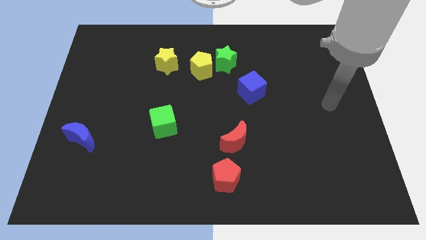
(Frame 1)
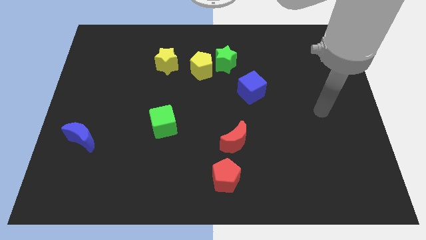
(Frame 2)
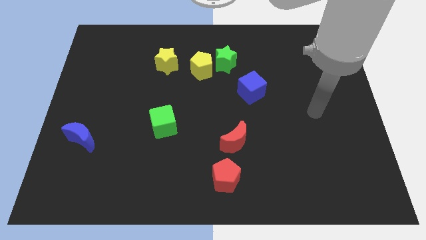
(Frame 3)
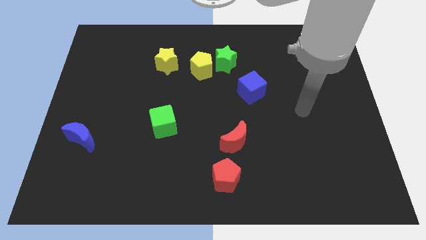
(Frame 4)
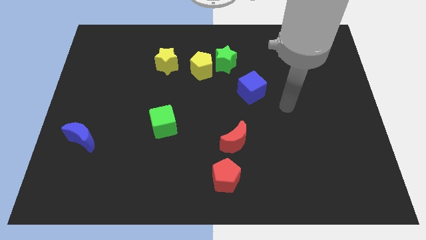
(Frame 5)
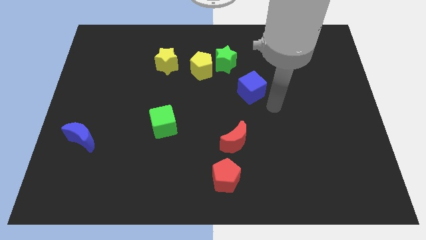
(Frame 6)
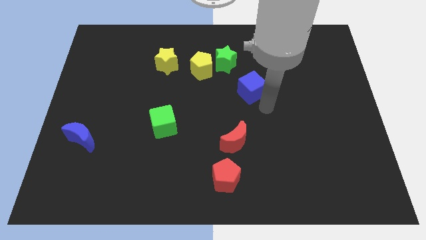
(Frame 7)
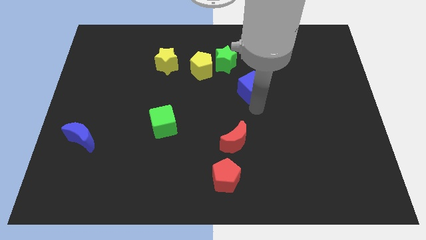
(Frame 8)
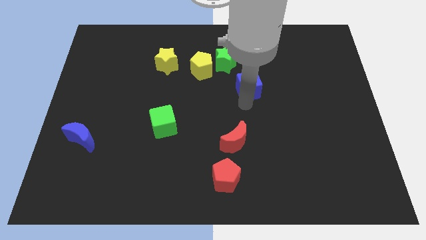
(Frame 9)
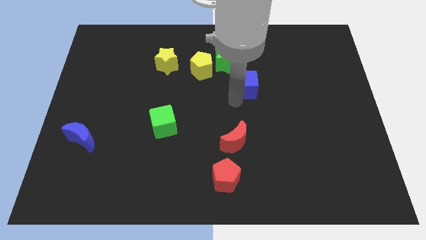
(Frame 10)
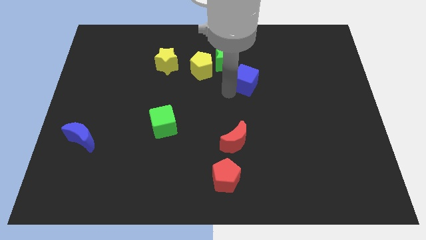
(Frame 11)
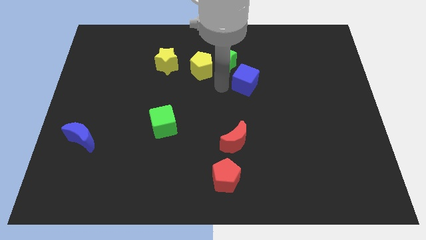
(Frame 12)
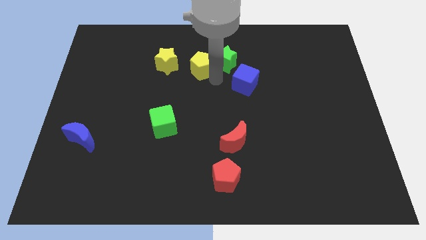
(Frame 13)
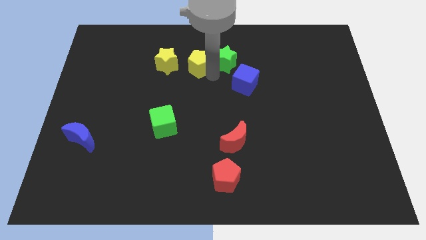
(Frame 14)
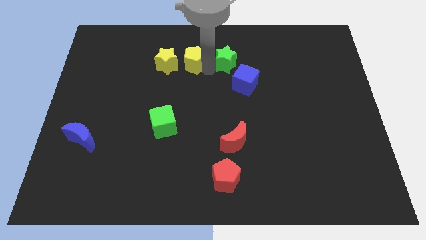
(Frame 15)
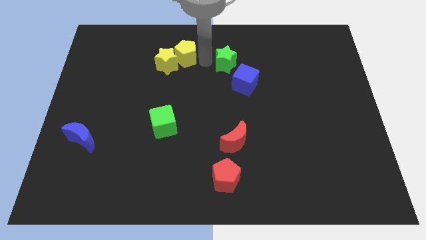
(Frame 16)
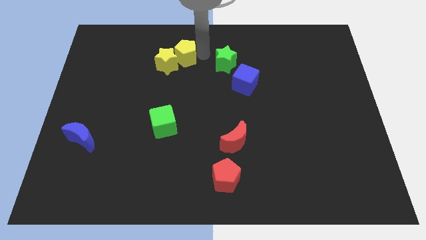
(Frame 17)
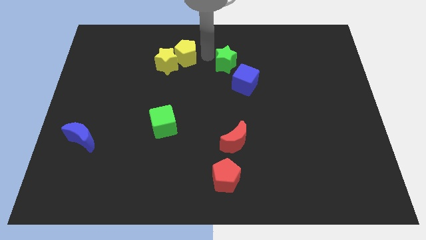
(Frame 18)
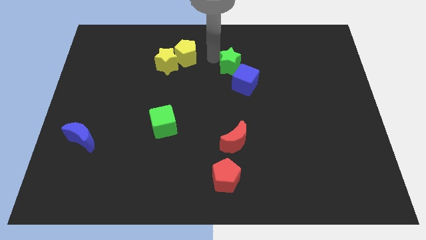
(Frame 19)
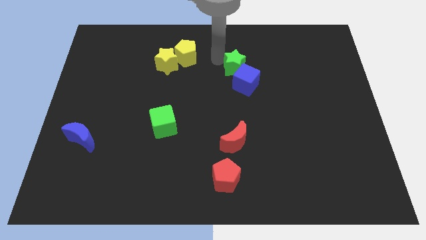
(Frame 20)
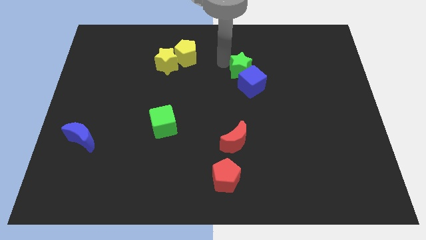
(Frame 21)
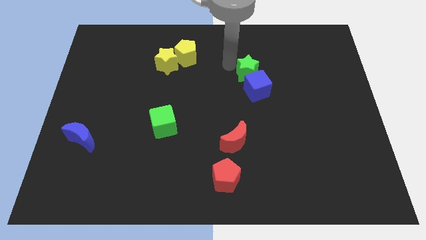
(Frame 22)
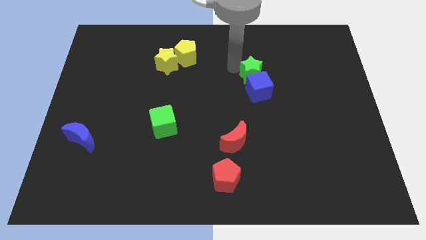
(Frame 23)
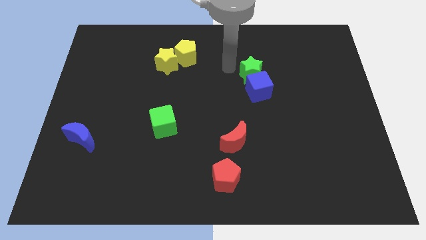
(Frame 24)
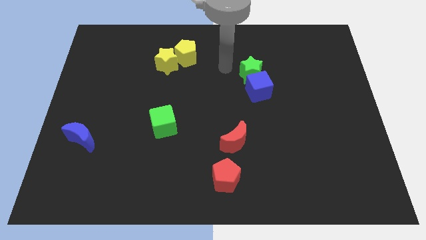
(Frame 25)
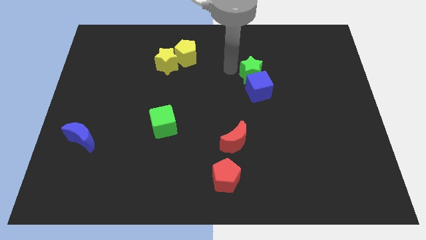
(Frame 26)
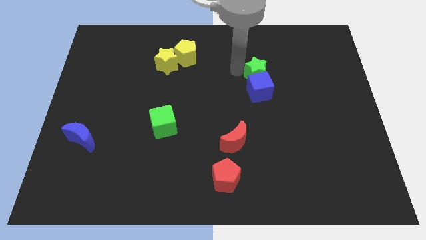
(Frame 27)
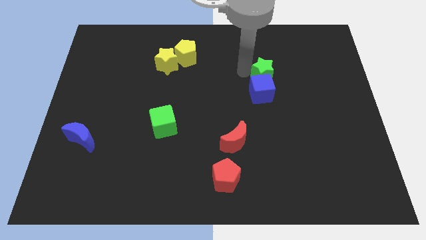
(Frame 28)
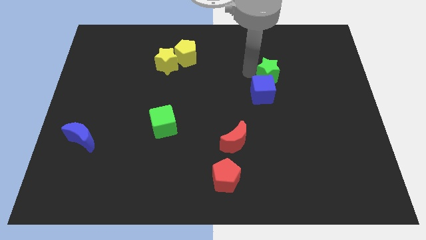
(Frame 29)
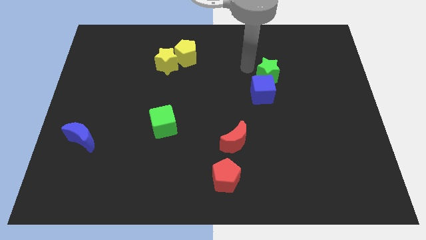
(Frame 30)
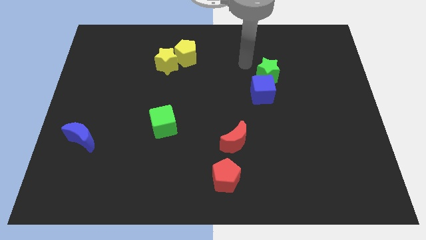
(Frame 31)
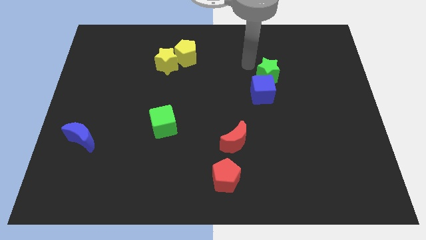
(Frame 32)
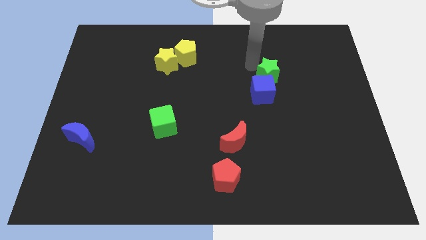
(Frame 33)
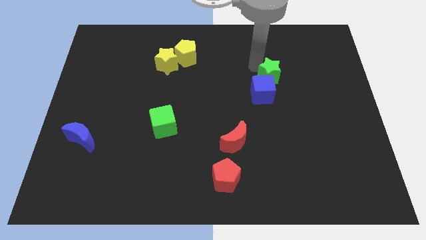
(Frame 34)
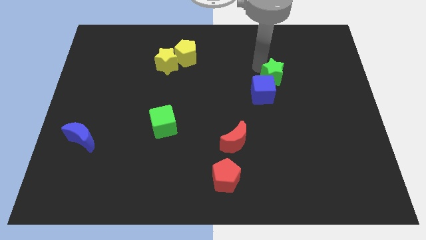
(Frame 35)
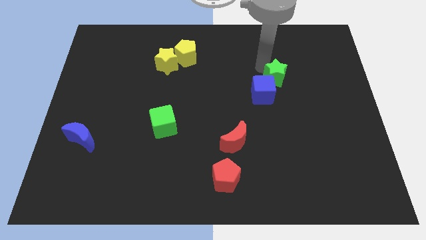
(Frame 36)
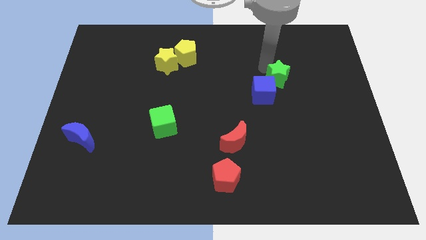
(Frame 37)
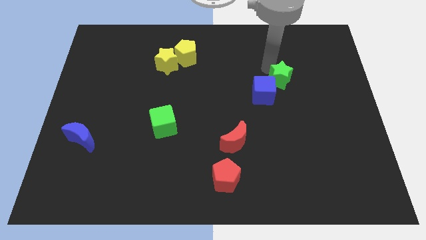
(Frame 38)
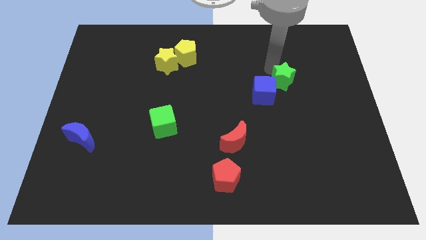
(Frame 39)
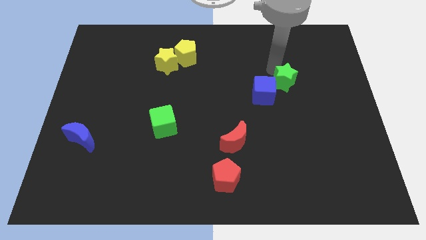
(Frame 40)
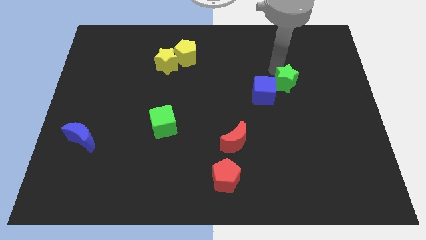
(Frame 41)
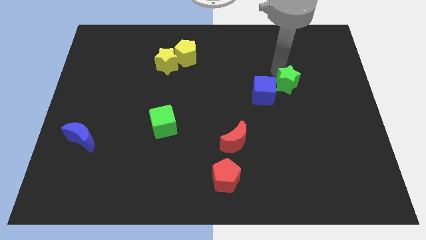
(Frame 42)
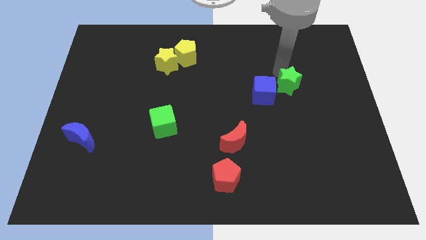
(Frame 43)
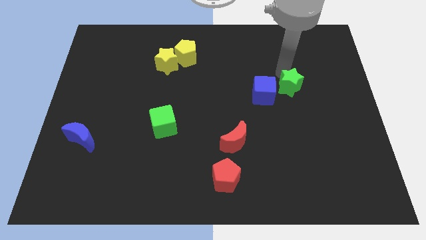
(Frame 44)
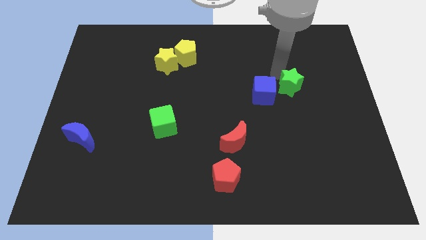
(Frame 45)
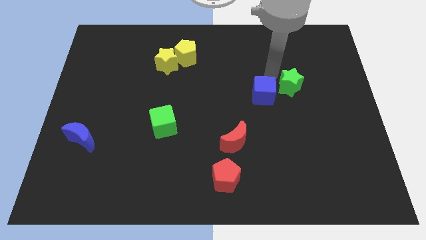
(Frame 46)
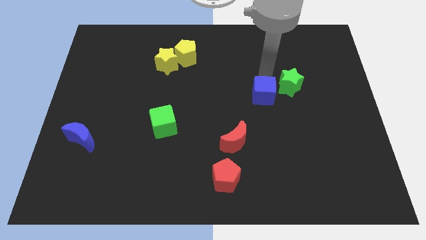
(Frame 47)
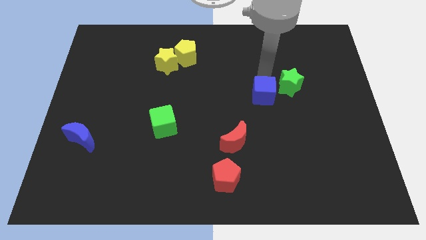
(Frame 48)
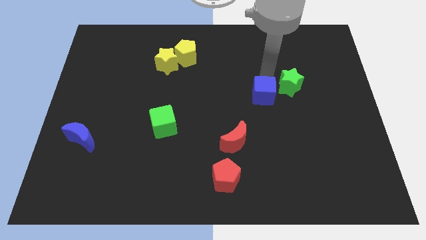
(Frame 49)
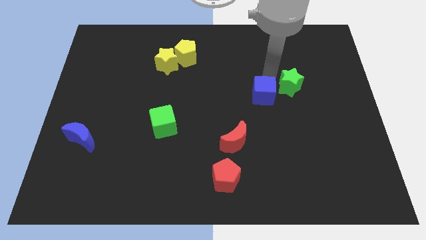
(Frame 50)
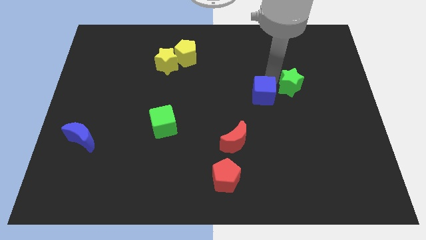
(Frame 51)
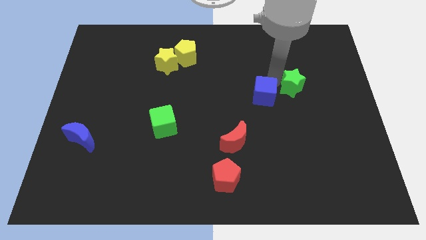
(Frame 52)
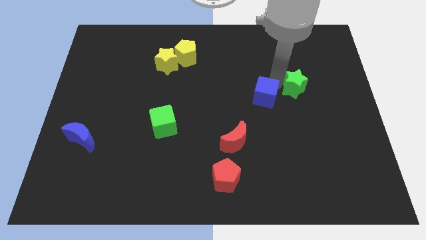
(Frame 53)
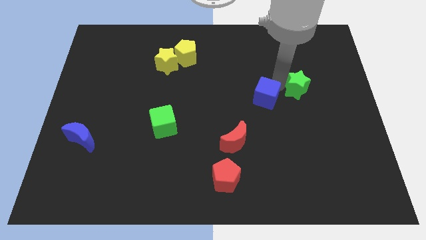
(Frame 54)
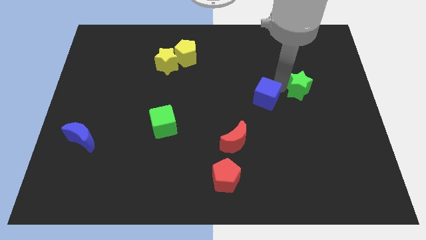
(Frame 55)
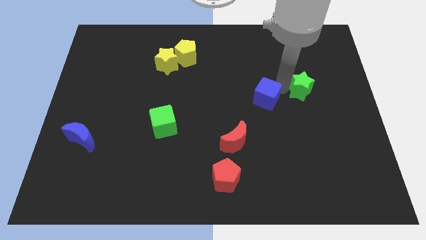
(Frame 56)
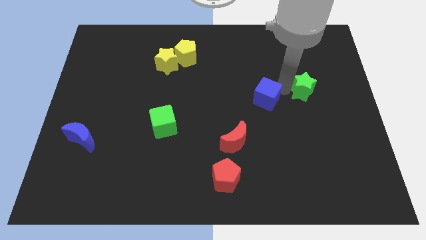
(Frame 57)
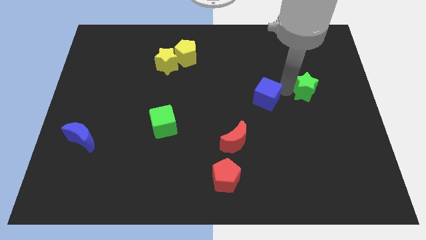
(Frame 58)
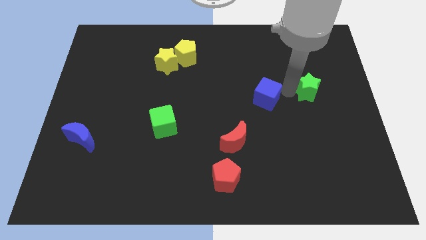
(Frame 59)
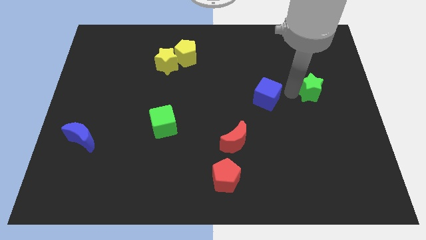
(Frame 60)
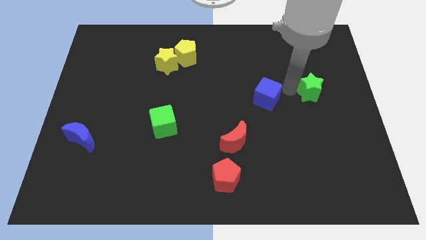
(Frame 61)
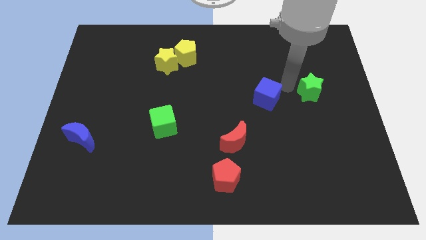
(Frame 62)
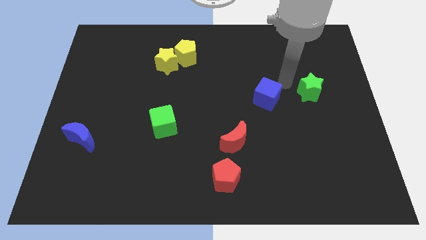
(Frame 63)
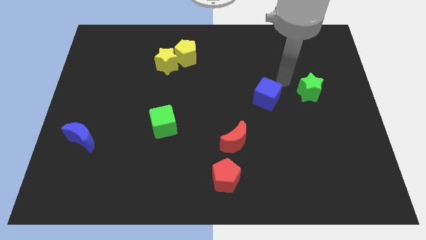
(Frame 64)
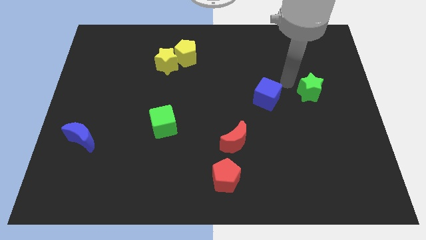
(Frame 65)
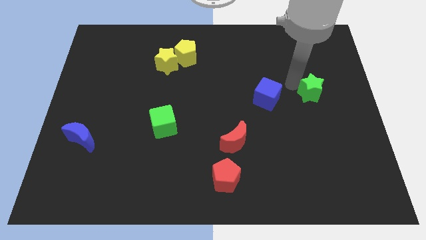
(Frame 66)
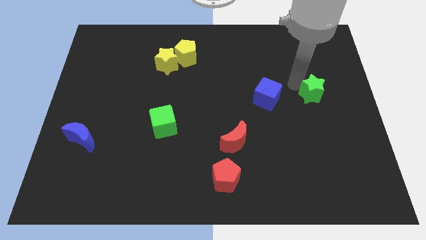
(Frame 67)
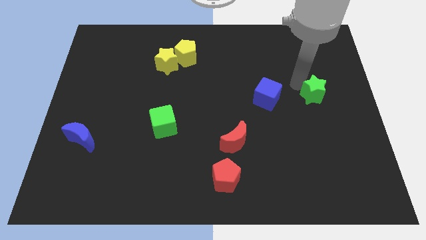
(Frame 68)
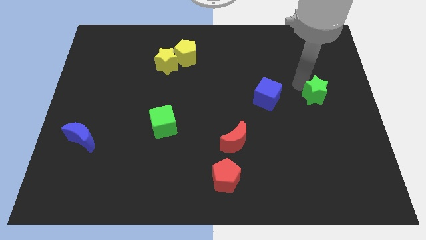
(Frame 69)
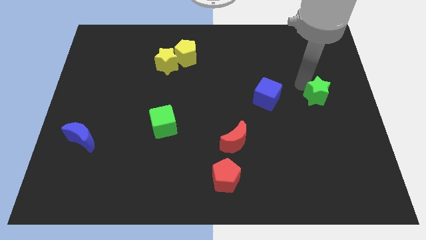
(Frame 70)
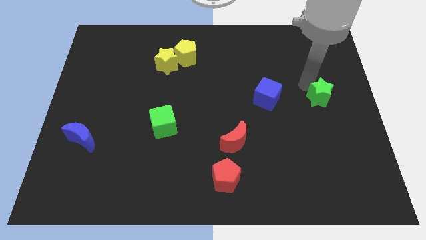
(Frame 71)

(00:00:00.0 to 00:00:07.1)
move the green star to the right side of the board
